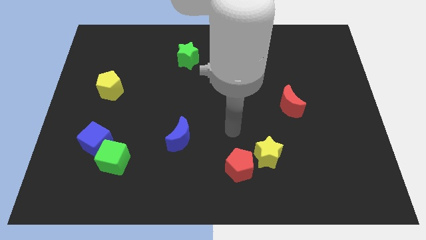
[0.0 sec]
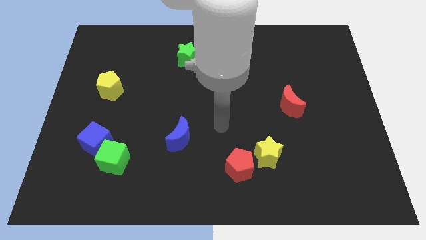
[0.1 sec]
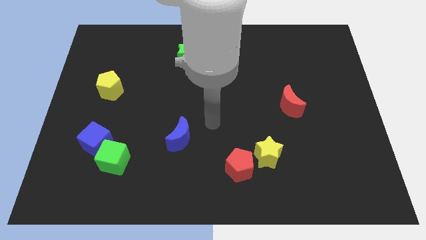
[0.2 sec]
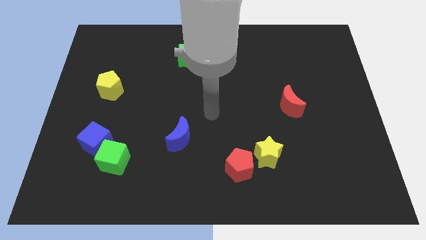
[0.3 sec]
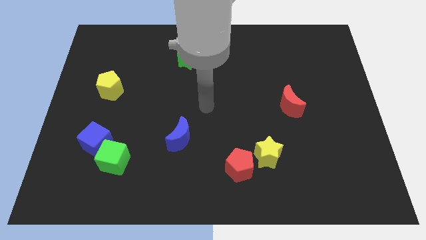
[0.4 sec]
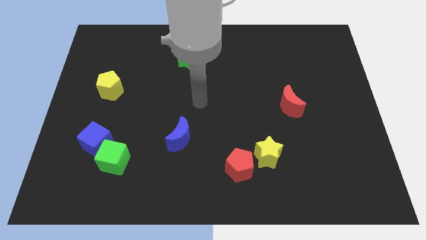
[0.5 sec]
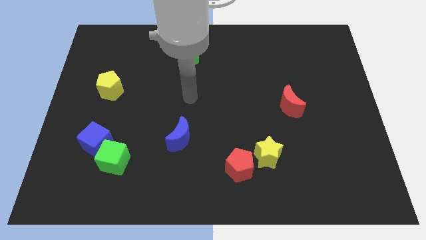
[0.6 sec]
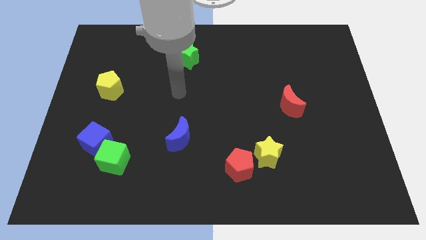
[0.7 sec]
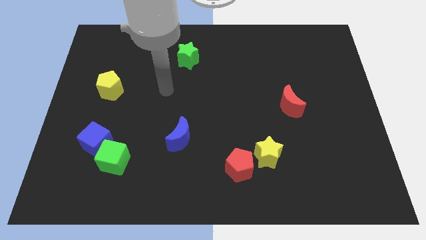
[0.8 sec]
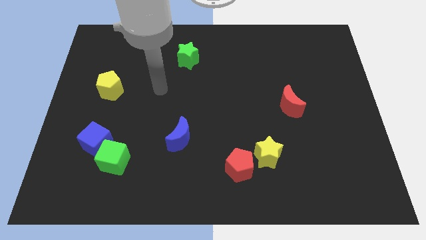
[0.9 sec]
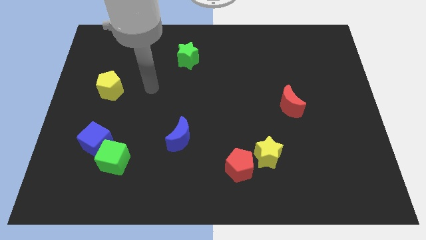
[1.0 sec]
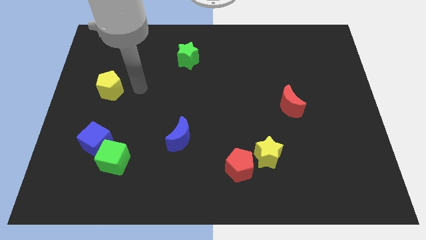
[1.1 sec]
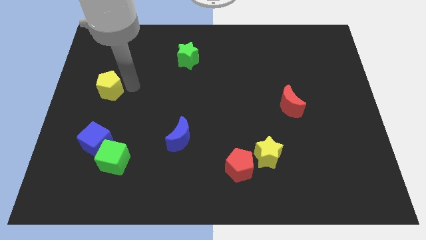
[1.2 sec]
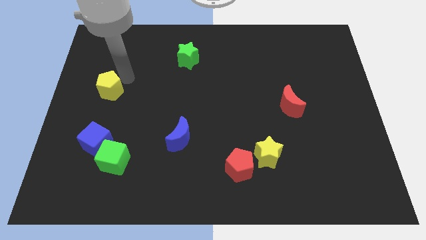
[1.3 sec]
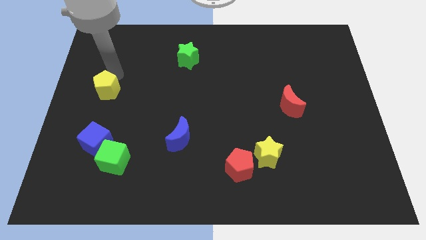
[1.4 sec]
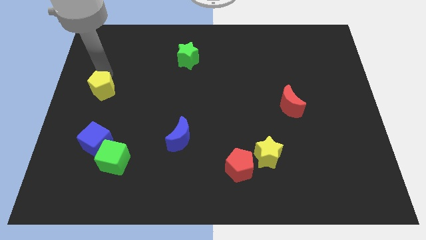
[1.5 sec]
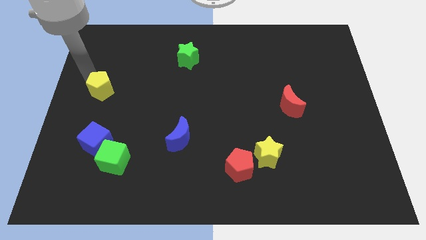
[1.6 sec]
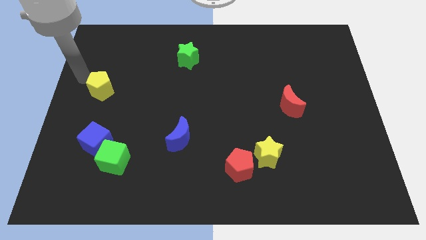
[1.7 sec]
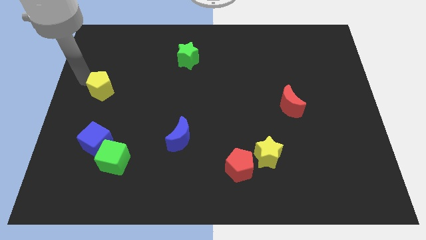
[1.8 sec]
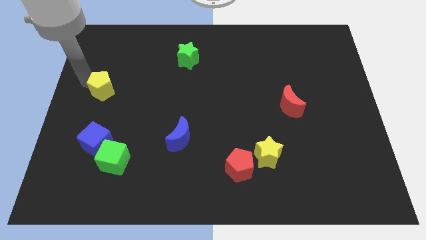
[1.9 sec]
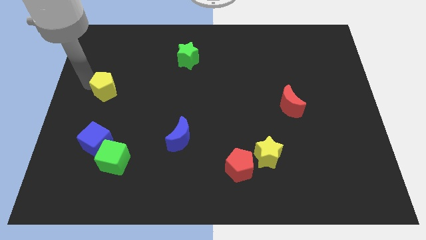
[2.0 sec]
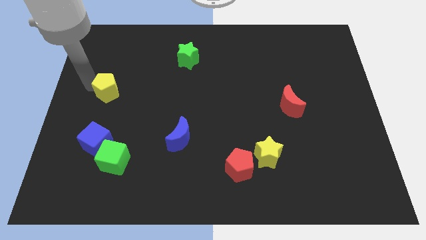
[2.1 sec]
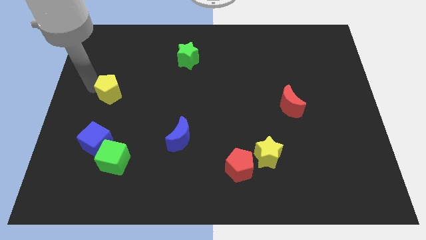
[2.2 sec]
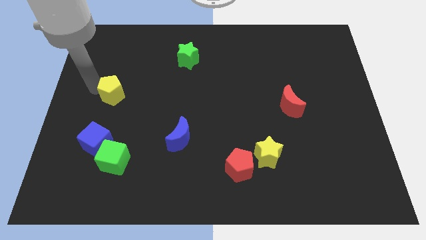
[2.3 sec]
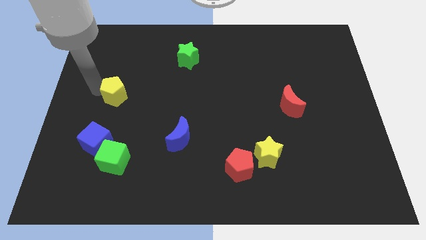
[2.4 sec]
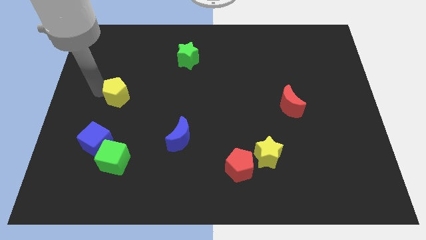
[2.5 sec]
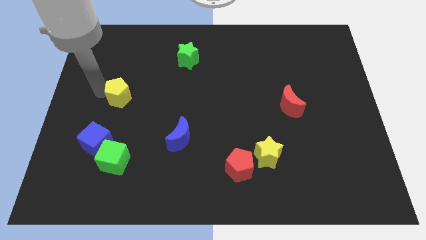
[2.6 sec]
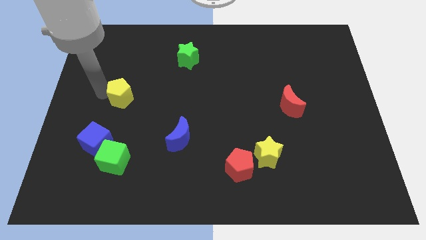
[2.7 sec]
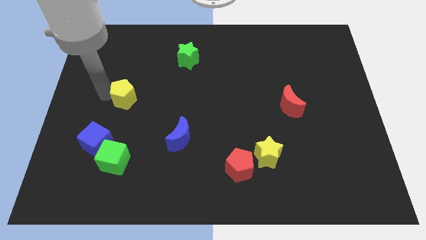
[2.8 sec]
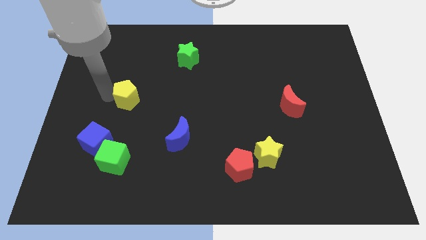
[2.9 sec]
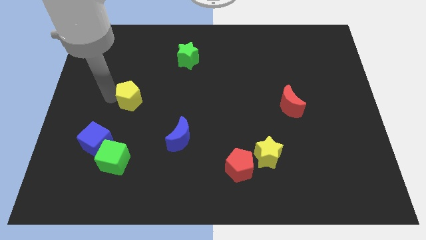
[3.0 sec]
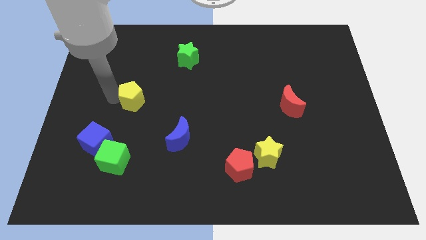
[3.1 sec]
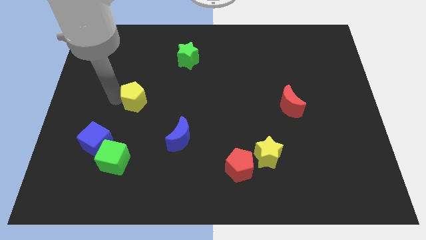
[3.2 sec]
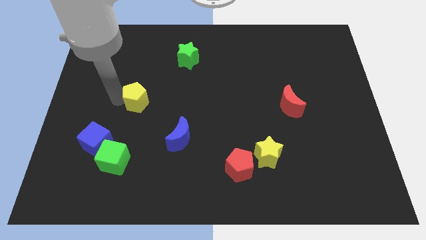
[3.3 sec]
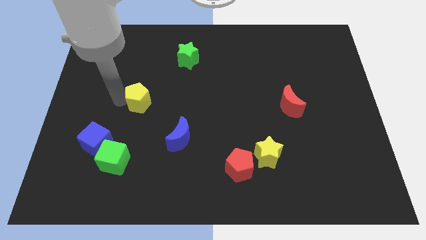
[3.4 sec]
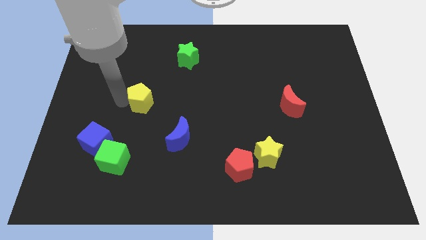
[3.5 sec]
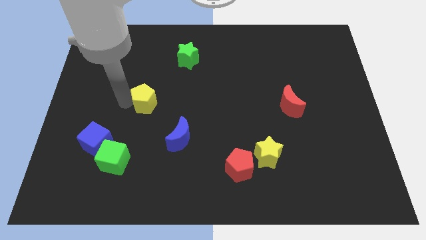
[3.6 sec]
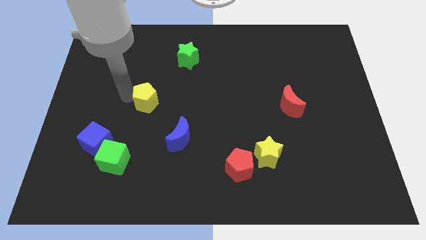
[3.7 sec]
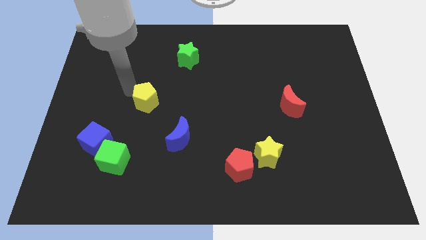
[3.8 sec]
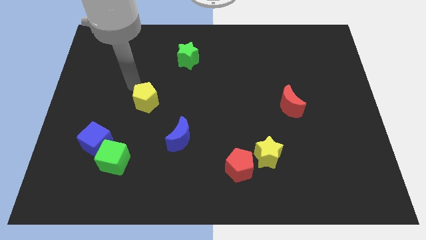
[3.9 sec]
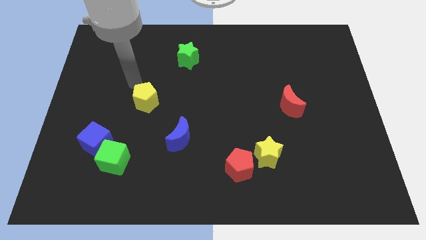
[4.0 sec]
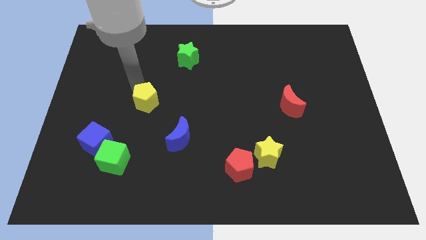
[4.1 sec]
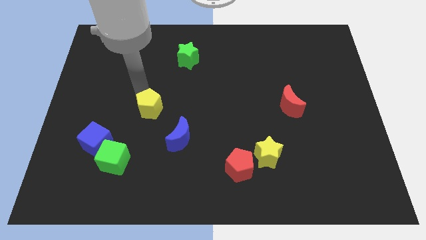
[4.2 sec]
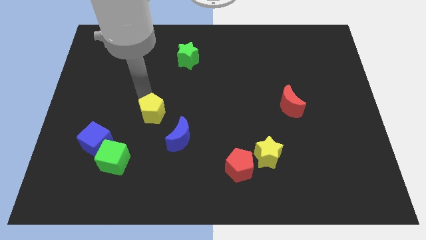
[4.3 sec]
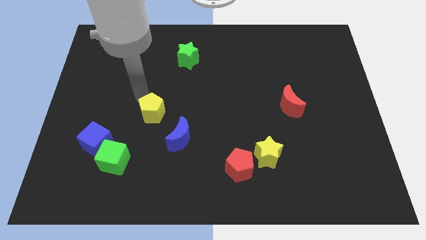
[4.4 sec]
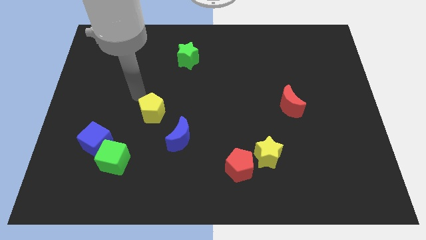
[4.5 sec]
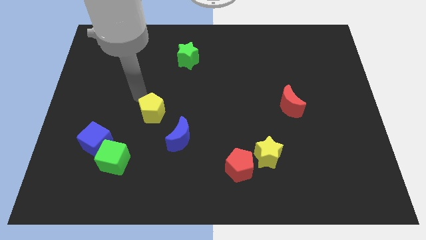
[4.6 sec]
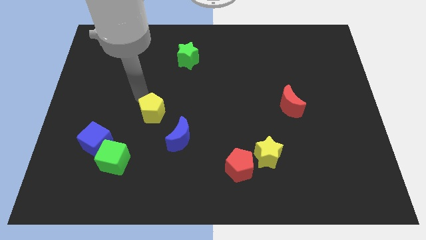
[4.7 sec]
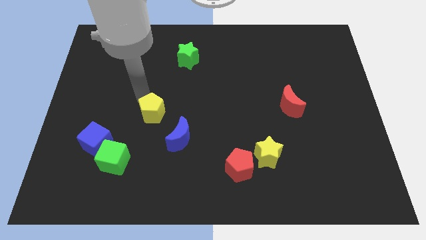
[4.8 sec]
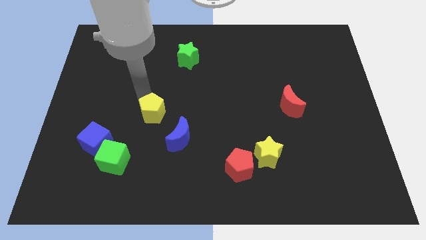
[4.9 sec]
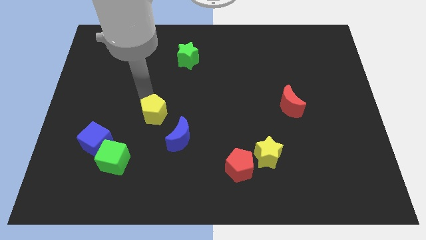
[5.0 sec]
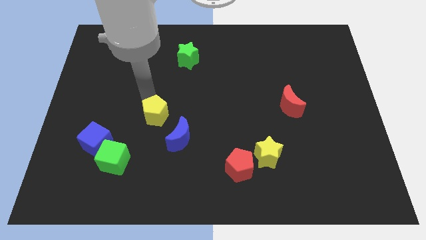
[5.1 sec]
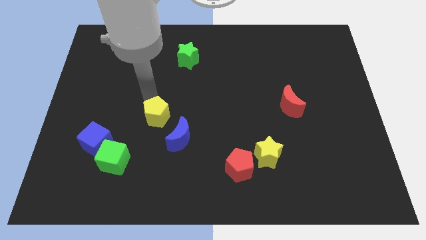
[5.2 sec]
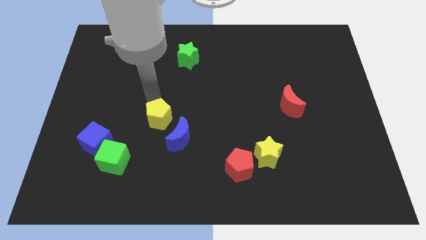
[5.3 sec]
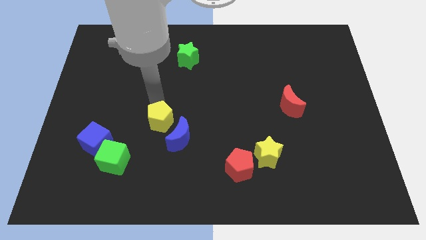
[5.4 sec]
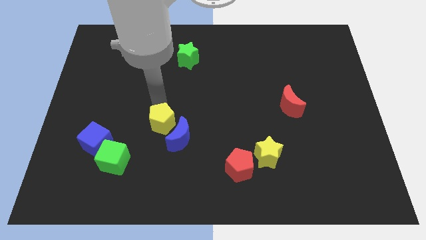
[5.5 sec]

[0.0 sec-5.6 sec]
move the yellow pentagon towards the blue moon

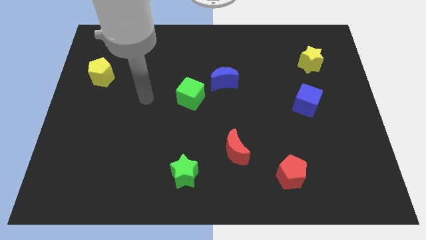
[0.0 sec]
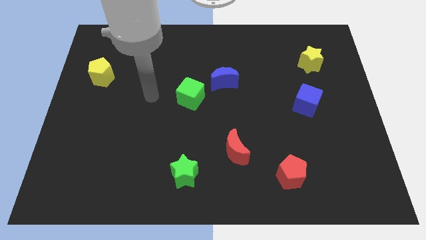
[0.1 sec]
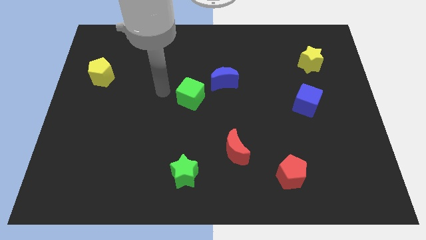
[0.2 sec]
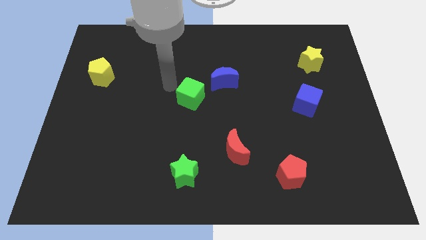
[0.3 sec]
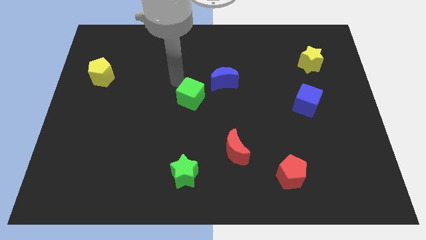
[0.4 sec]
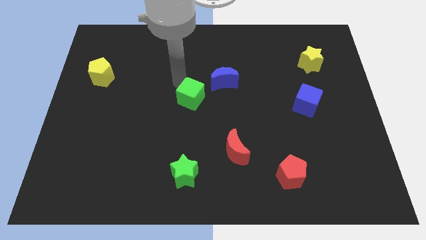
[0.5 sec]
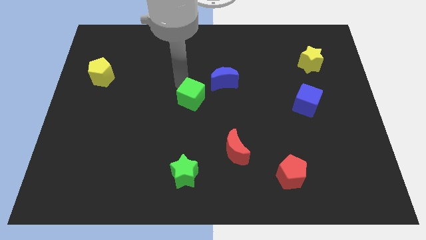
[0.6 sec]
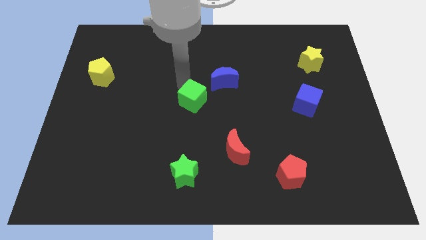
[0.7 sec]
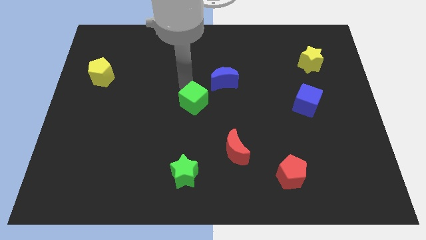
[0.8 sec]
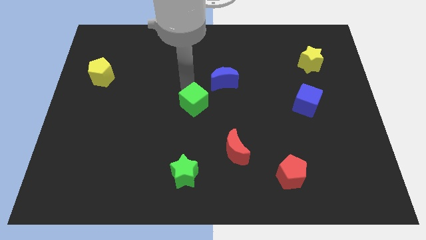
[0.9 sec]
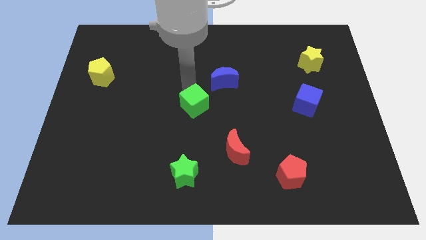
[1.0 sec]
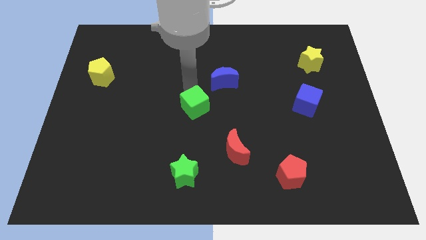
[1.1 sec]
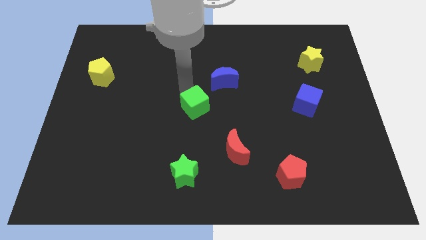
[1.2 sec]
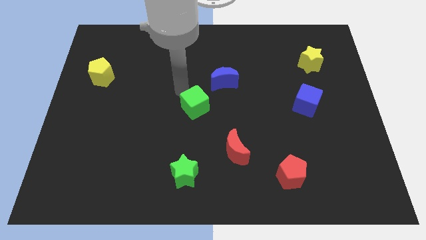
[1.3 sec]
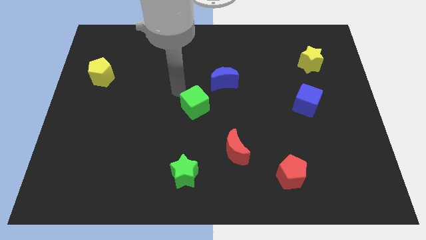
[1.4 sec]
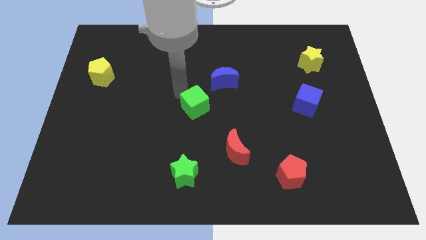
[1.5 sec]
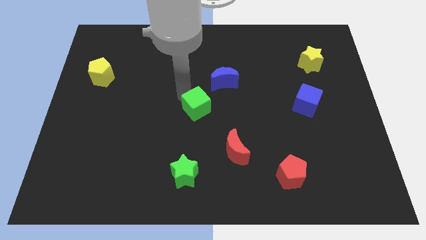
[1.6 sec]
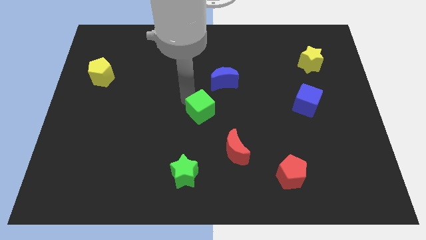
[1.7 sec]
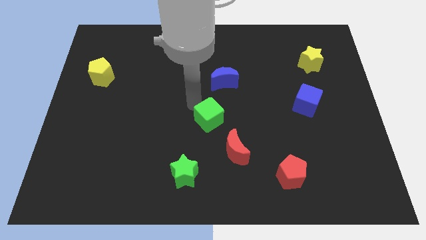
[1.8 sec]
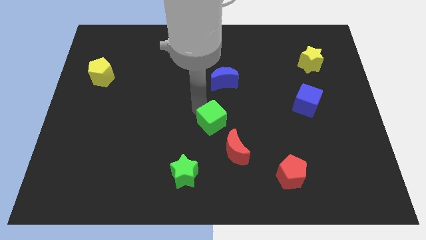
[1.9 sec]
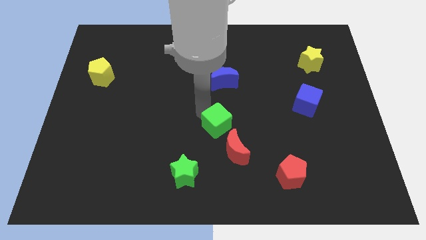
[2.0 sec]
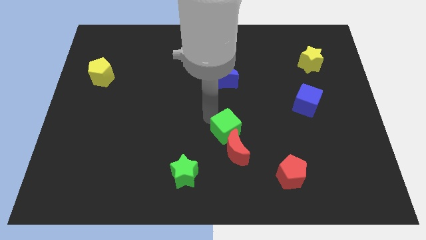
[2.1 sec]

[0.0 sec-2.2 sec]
push the green cube towards the red moon
